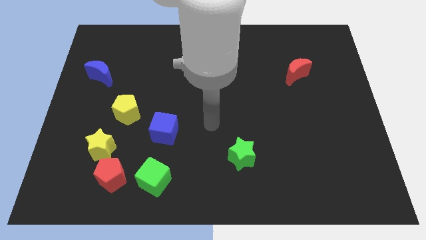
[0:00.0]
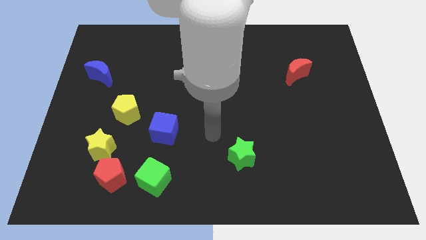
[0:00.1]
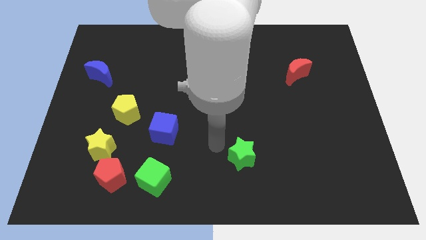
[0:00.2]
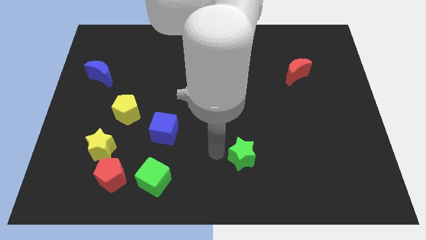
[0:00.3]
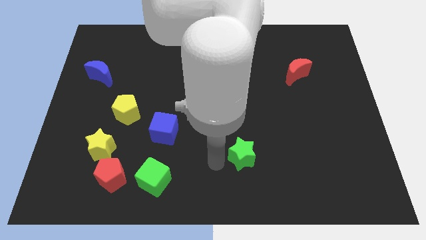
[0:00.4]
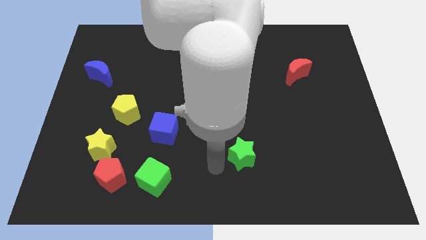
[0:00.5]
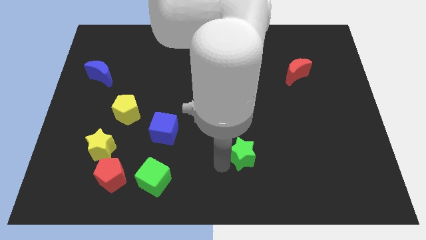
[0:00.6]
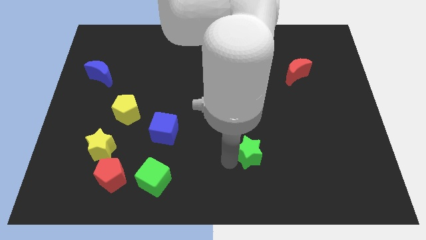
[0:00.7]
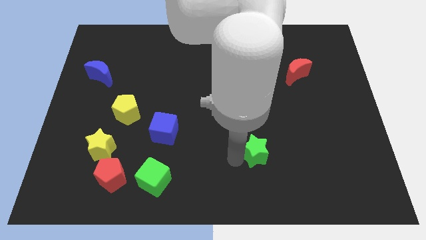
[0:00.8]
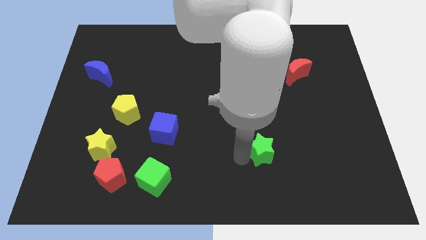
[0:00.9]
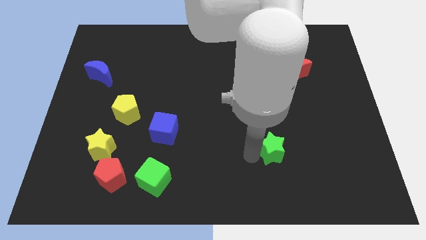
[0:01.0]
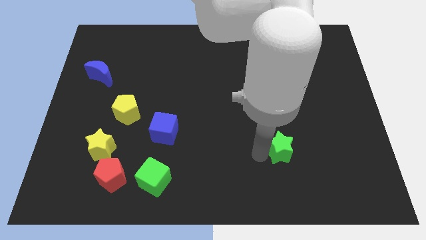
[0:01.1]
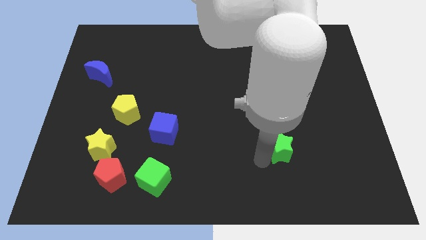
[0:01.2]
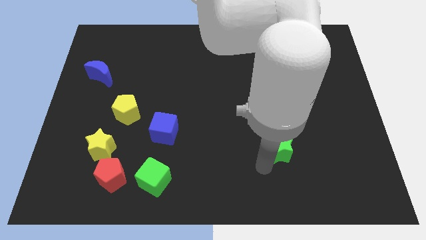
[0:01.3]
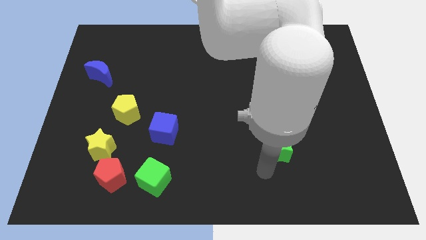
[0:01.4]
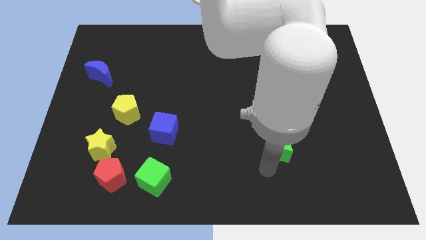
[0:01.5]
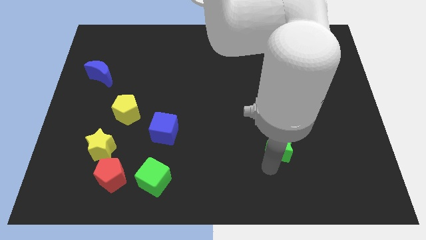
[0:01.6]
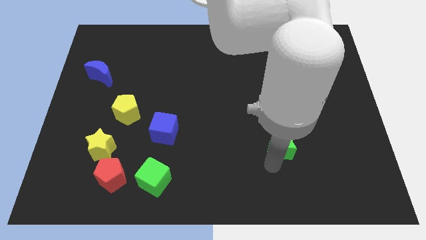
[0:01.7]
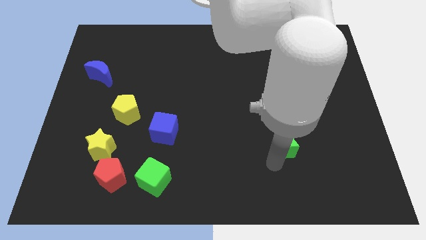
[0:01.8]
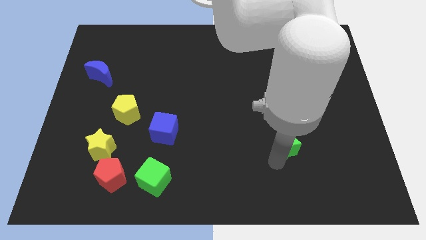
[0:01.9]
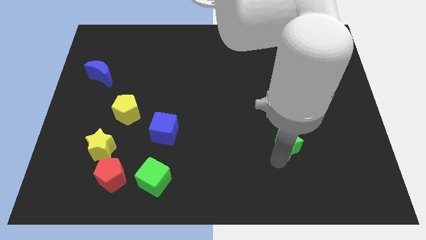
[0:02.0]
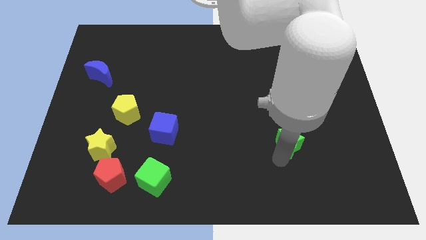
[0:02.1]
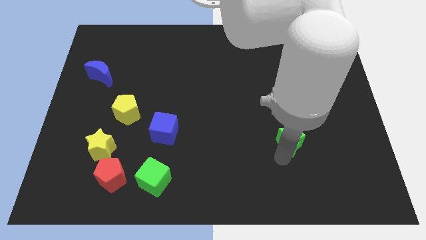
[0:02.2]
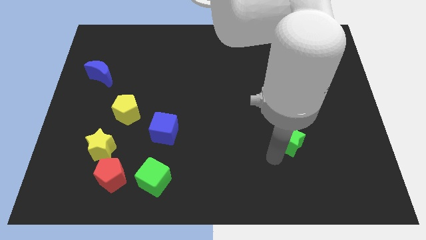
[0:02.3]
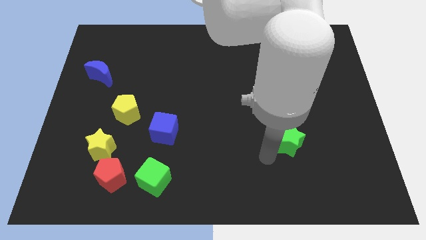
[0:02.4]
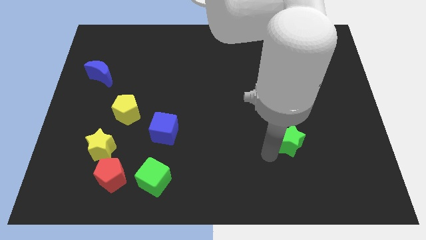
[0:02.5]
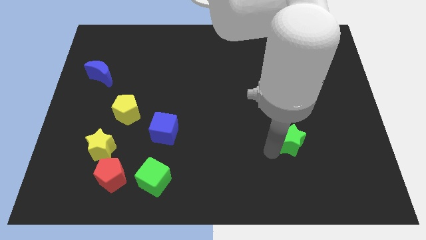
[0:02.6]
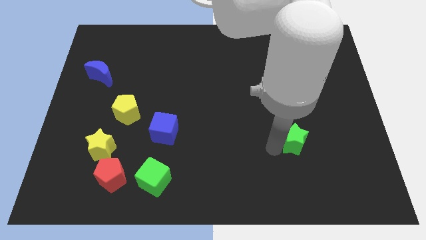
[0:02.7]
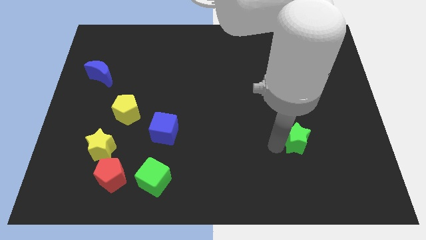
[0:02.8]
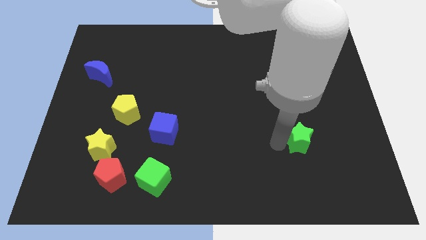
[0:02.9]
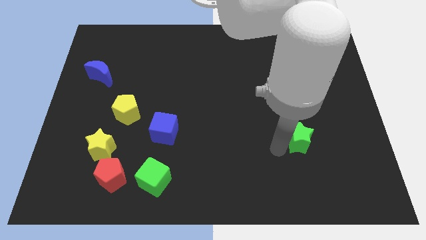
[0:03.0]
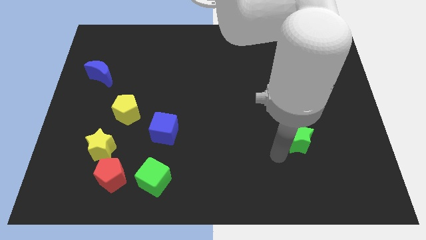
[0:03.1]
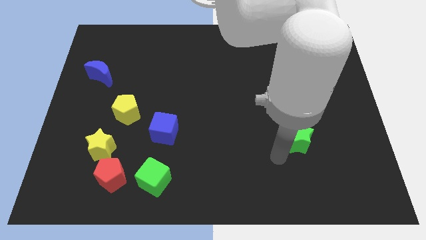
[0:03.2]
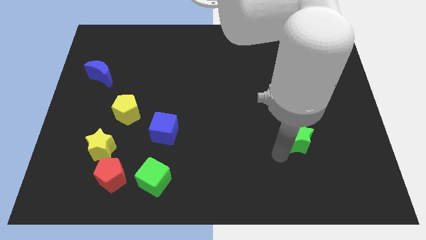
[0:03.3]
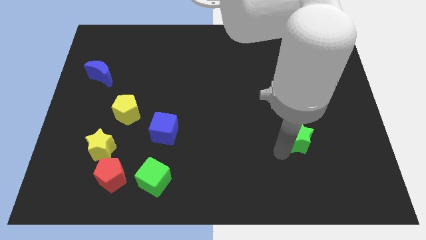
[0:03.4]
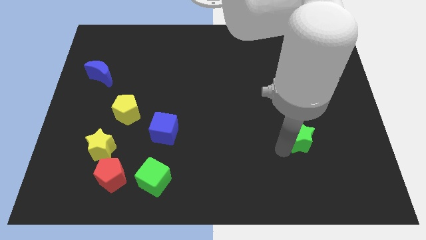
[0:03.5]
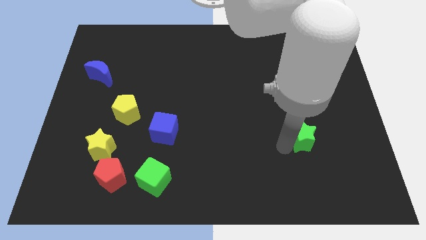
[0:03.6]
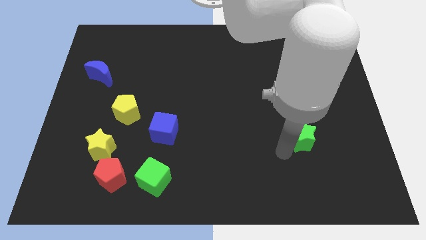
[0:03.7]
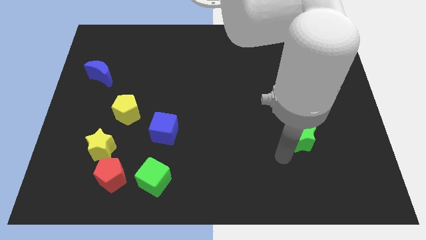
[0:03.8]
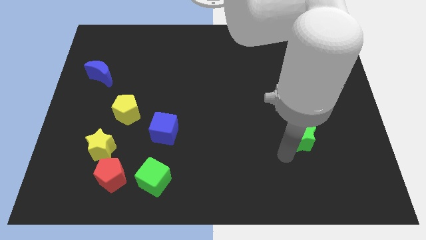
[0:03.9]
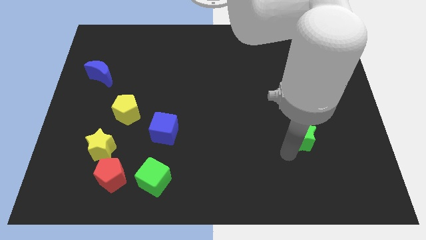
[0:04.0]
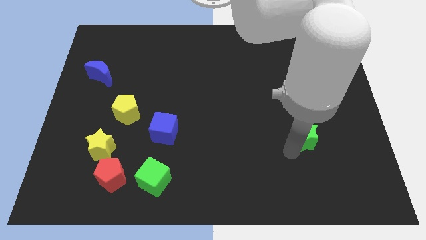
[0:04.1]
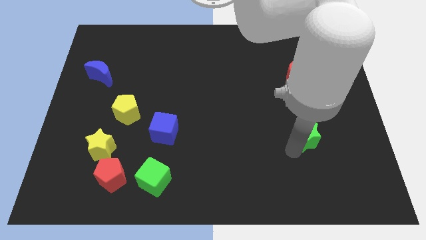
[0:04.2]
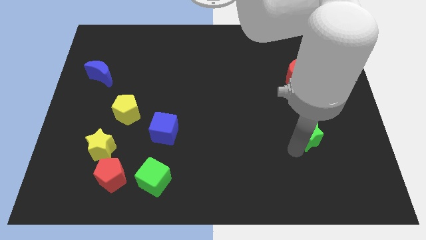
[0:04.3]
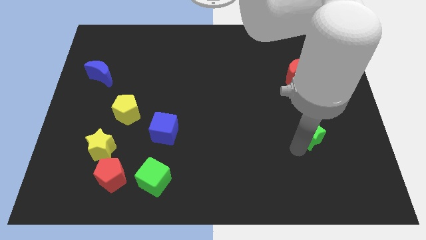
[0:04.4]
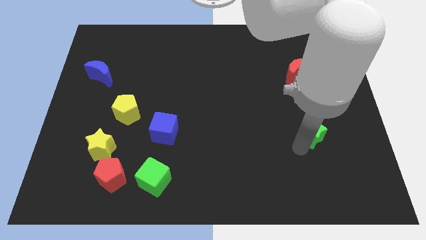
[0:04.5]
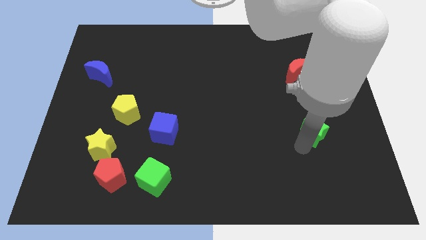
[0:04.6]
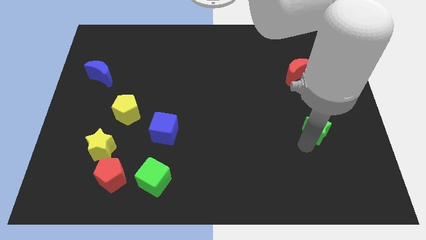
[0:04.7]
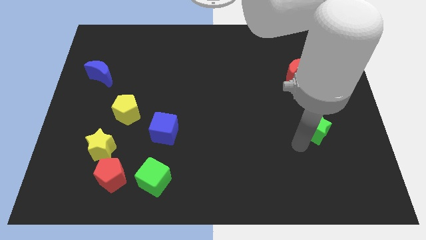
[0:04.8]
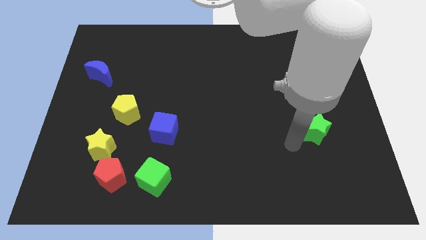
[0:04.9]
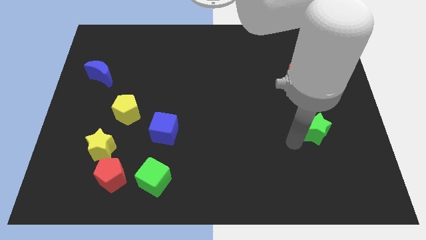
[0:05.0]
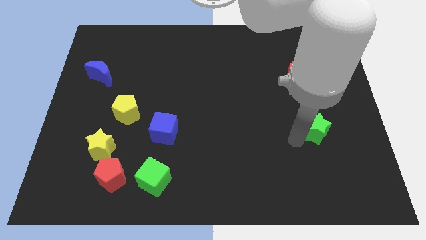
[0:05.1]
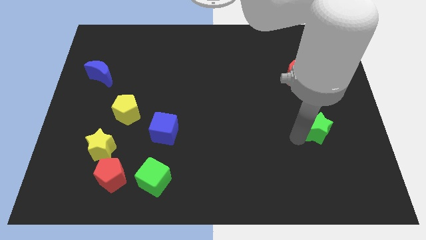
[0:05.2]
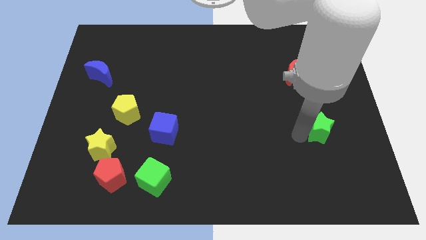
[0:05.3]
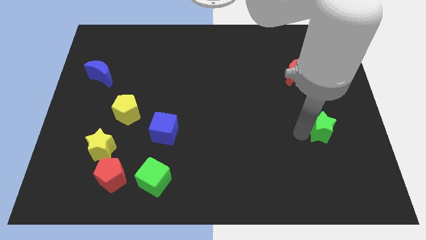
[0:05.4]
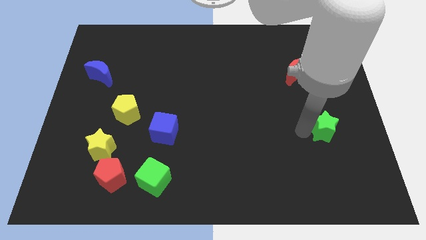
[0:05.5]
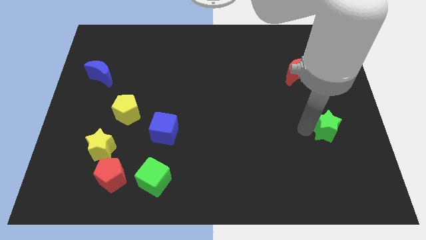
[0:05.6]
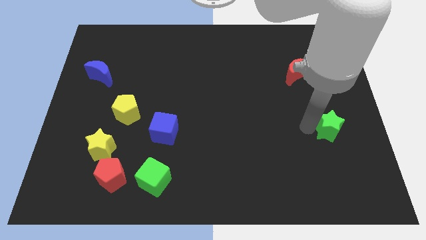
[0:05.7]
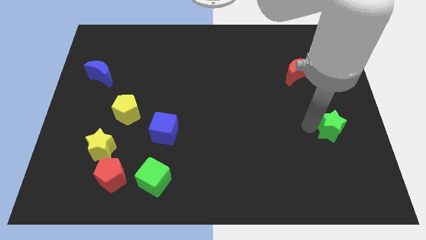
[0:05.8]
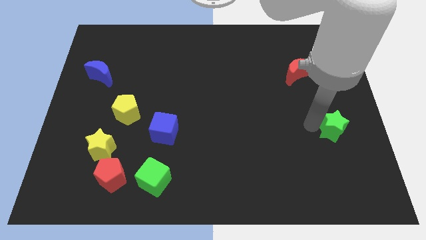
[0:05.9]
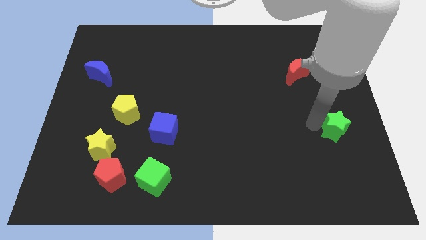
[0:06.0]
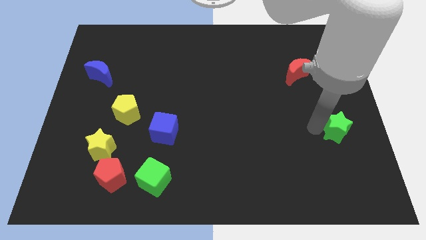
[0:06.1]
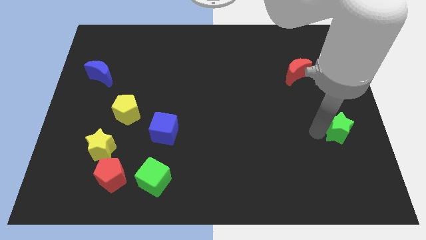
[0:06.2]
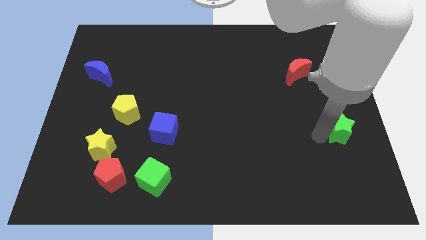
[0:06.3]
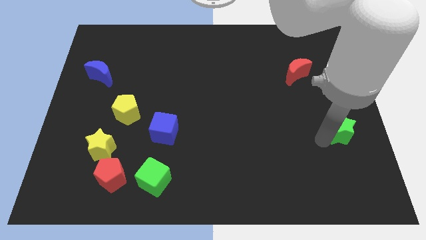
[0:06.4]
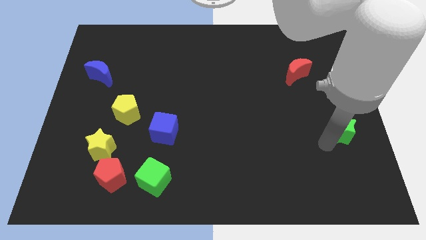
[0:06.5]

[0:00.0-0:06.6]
push the green star to the right side of the board
